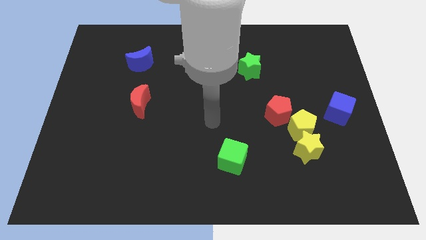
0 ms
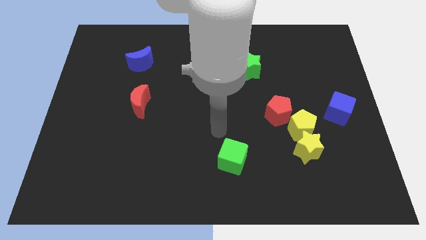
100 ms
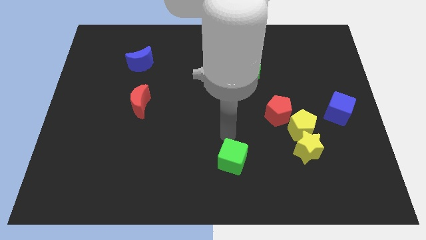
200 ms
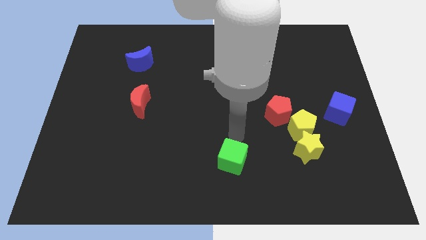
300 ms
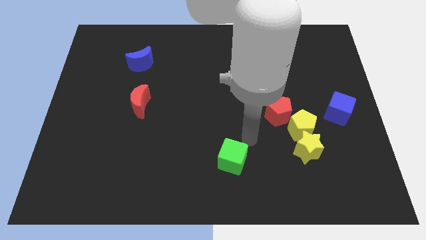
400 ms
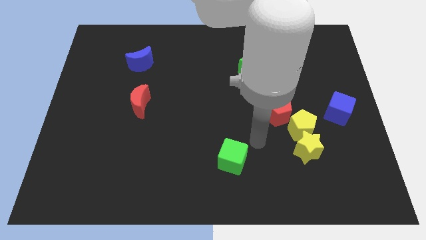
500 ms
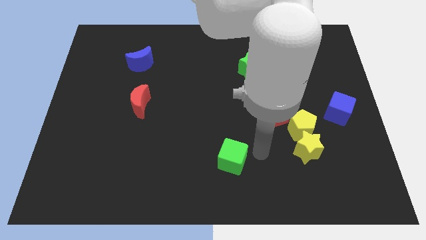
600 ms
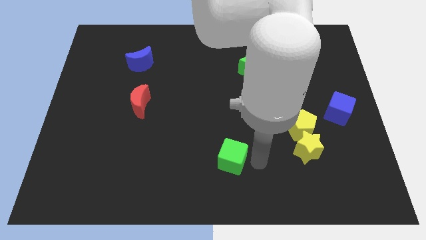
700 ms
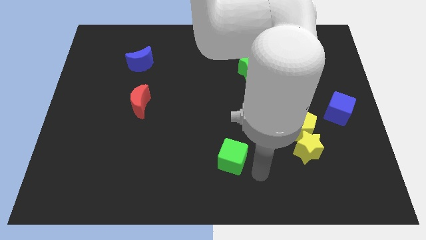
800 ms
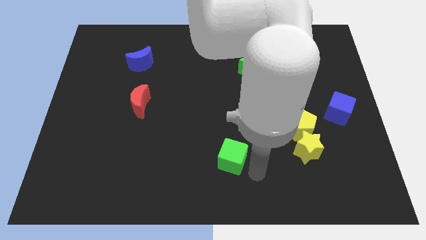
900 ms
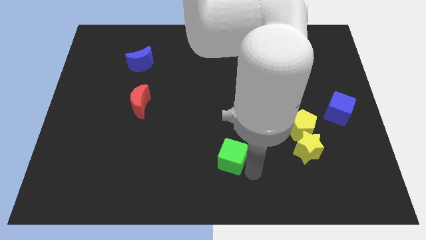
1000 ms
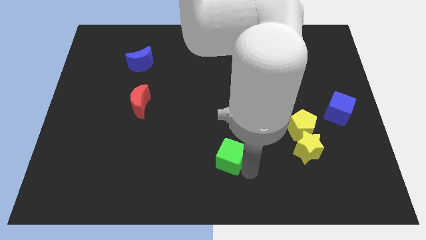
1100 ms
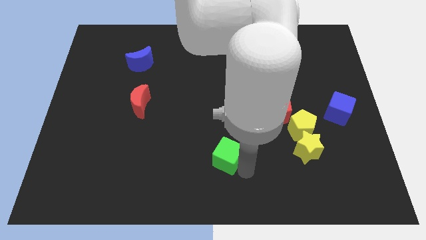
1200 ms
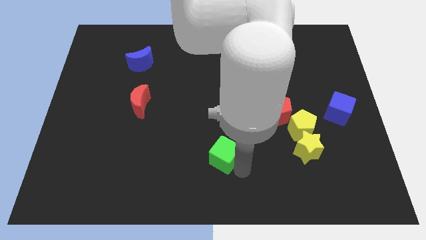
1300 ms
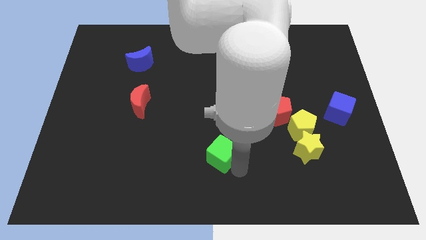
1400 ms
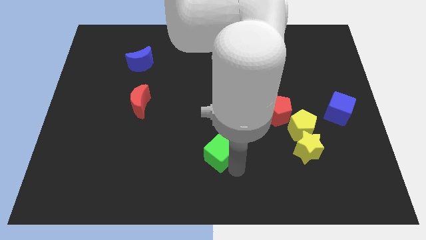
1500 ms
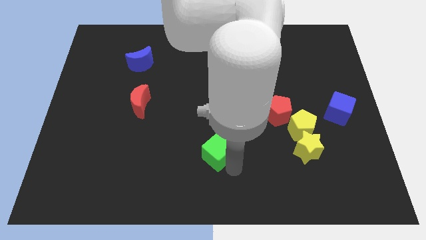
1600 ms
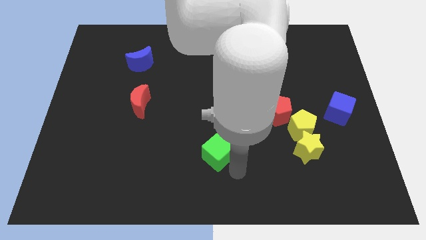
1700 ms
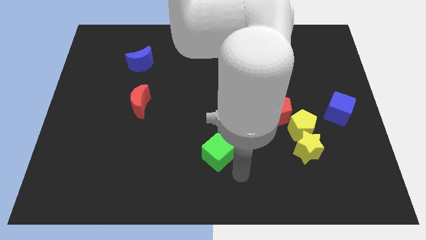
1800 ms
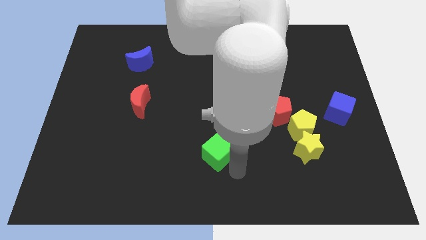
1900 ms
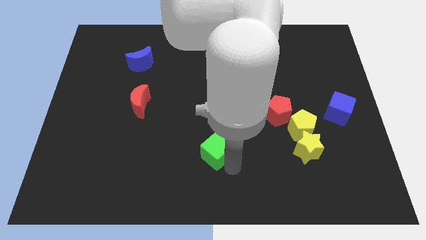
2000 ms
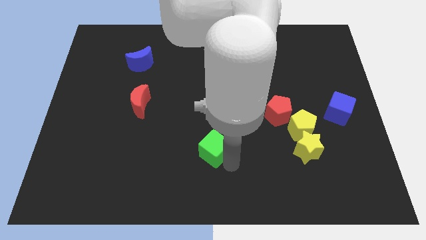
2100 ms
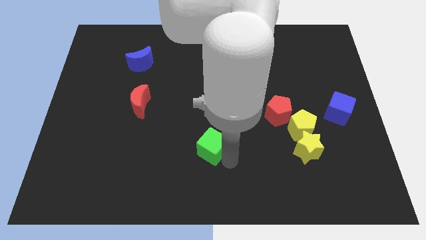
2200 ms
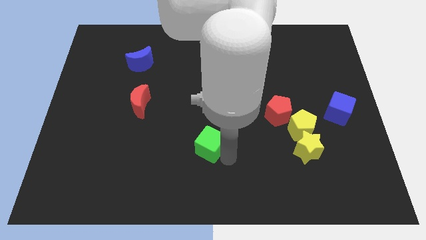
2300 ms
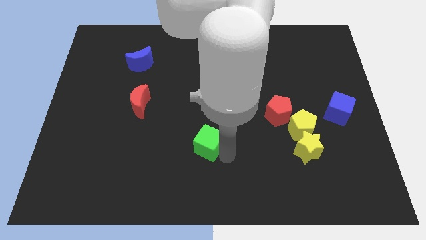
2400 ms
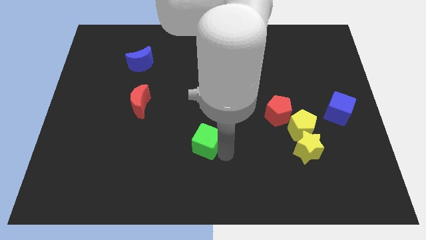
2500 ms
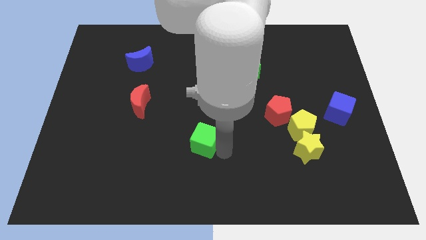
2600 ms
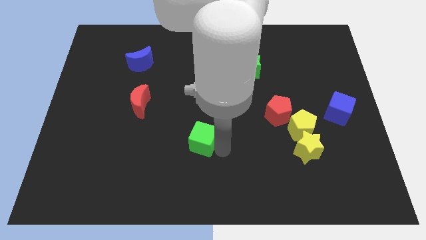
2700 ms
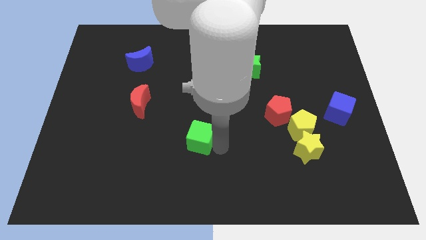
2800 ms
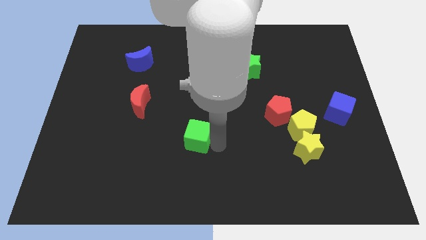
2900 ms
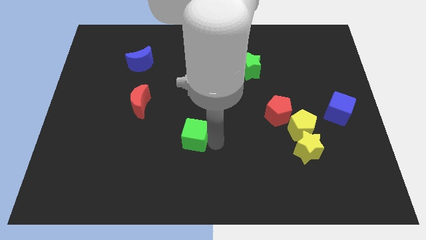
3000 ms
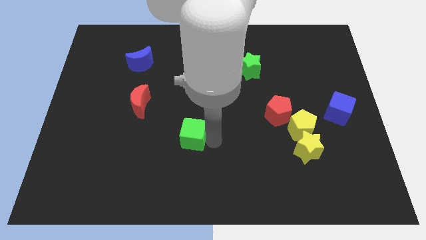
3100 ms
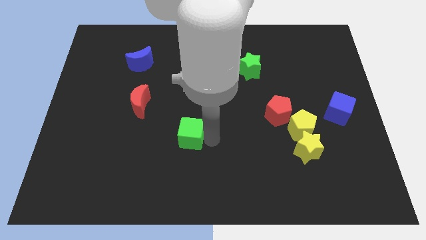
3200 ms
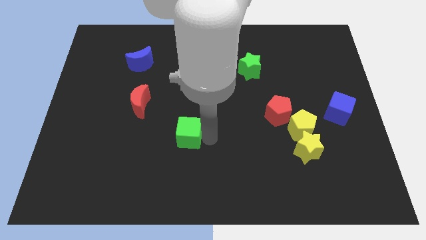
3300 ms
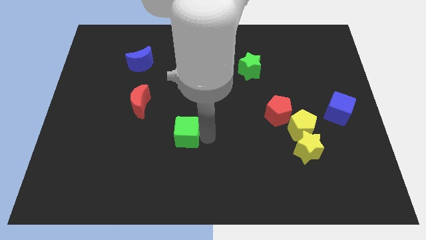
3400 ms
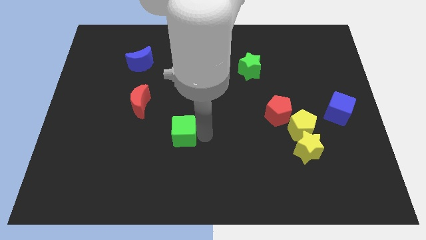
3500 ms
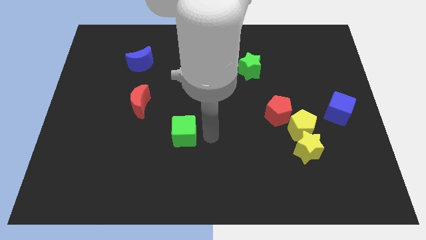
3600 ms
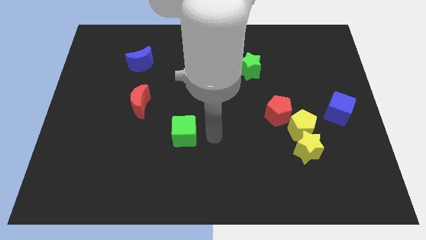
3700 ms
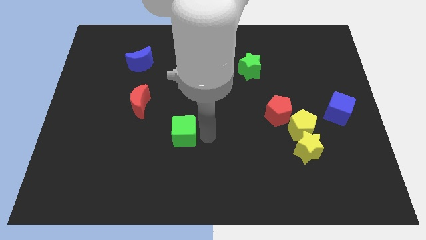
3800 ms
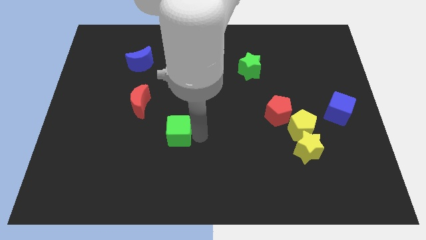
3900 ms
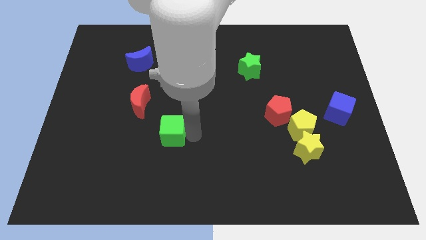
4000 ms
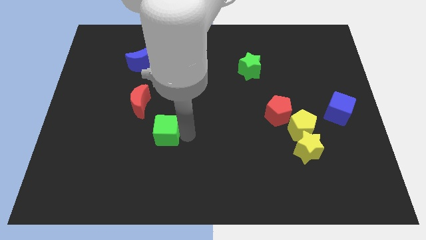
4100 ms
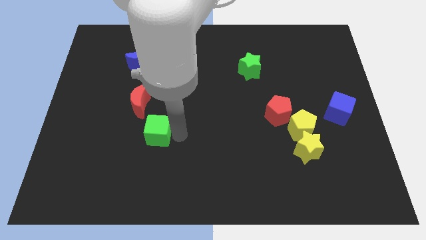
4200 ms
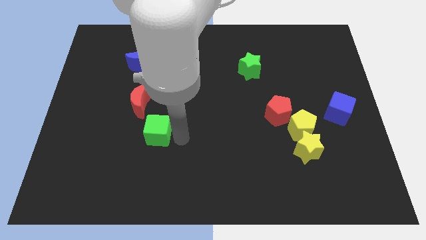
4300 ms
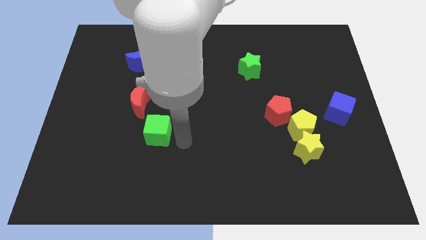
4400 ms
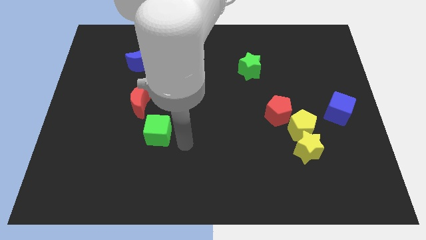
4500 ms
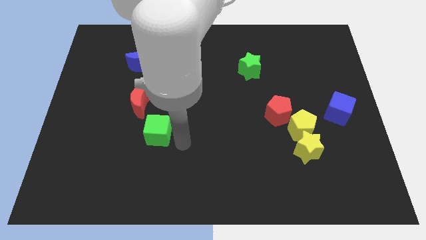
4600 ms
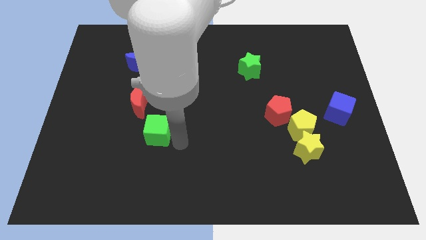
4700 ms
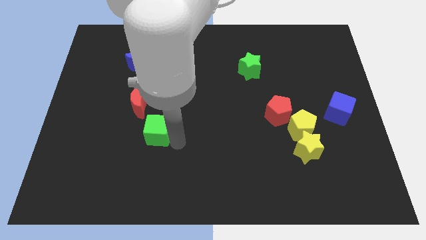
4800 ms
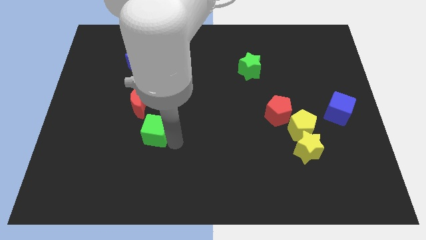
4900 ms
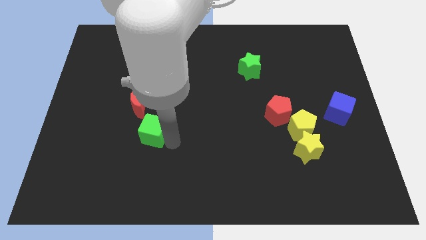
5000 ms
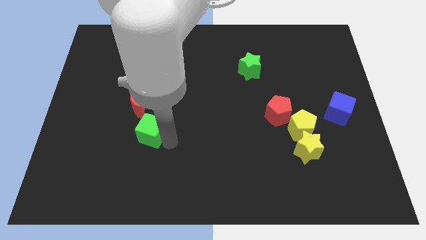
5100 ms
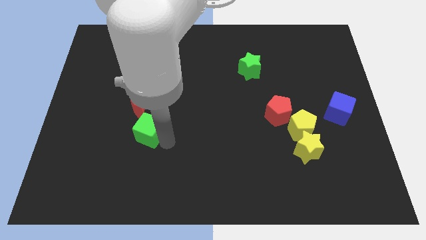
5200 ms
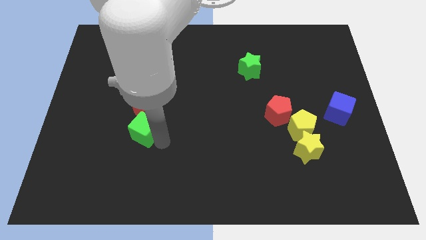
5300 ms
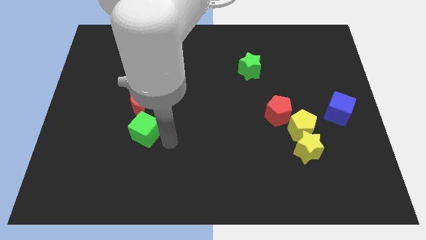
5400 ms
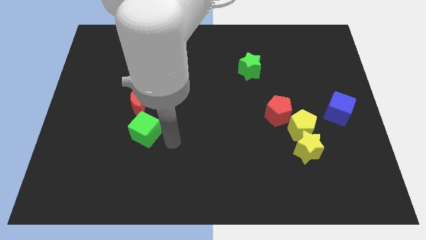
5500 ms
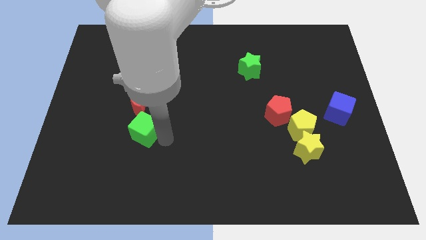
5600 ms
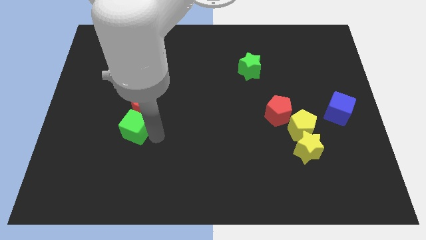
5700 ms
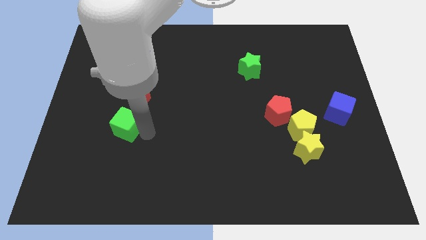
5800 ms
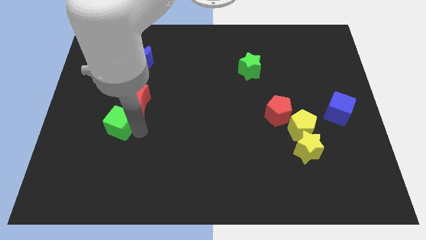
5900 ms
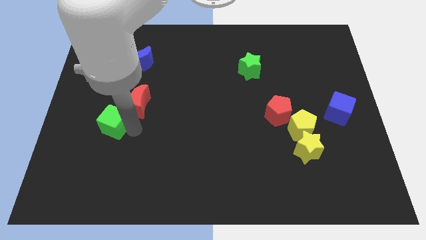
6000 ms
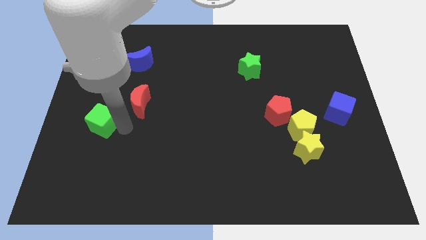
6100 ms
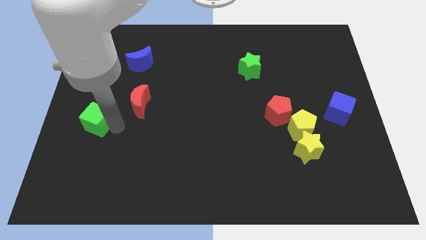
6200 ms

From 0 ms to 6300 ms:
move the green cube to the left side

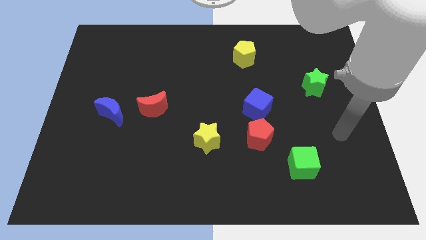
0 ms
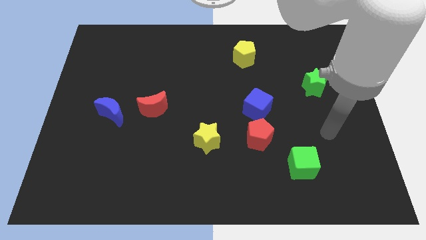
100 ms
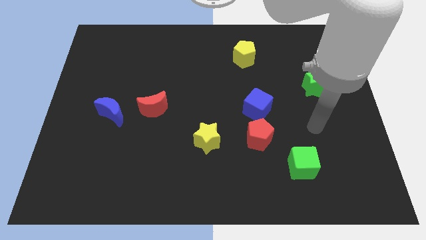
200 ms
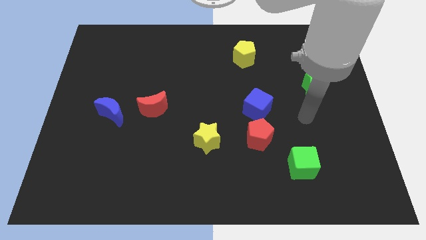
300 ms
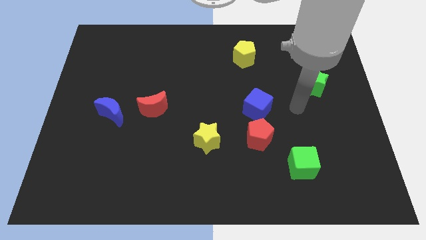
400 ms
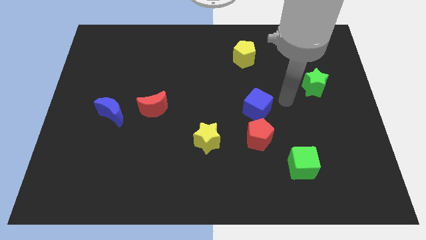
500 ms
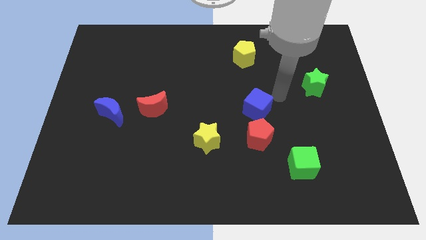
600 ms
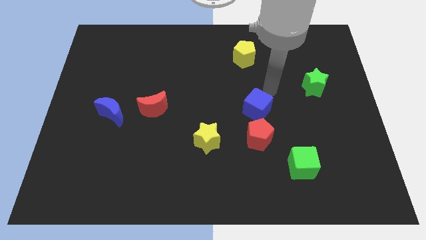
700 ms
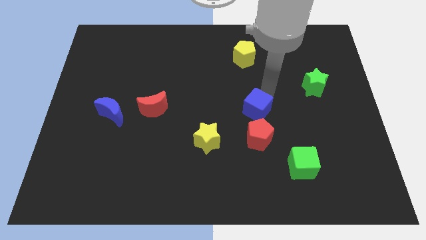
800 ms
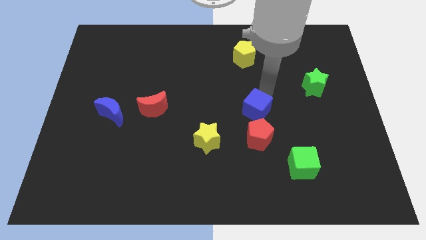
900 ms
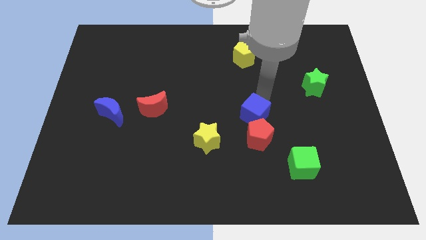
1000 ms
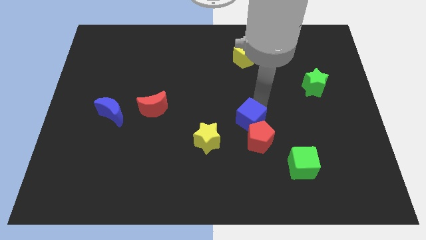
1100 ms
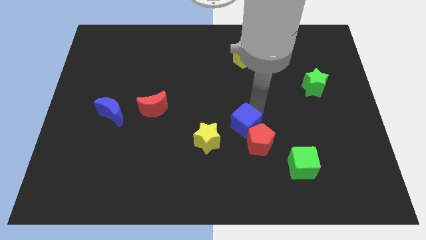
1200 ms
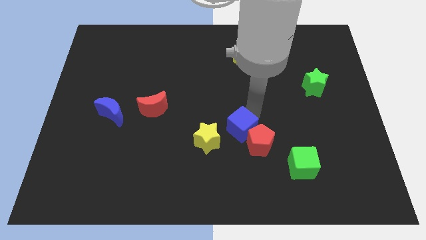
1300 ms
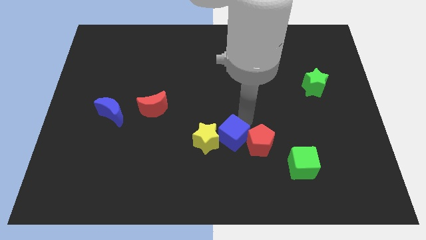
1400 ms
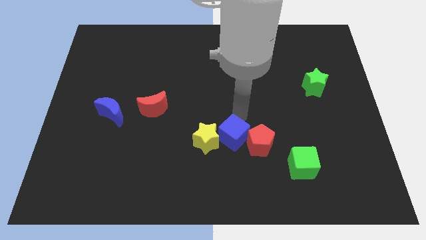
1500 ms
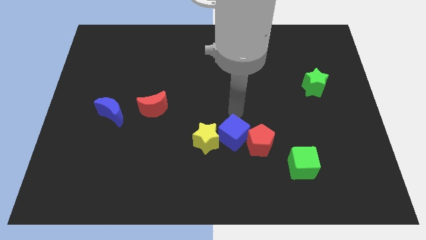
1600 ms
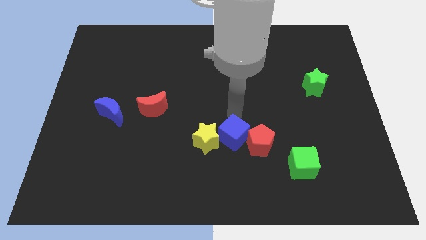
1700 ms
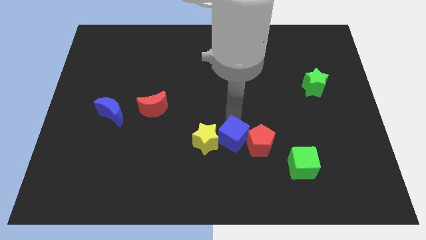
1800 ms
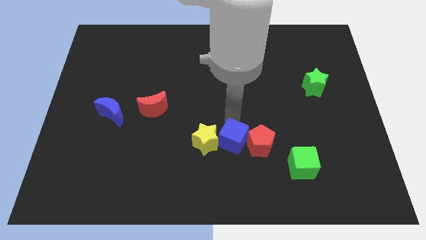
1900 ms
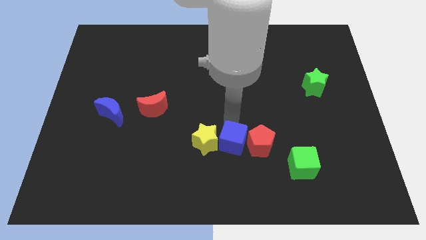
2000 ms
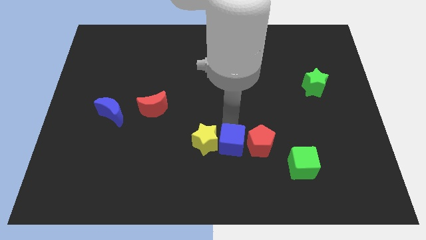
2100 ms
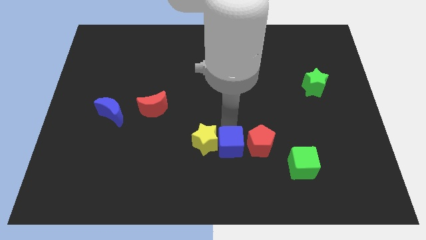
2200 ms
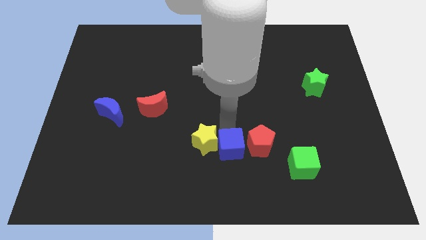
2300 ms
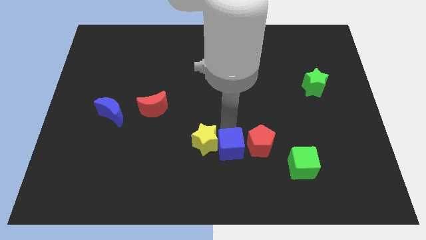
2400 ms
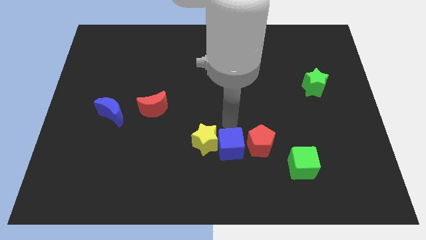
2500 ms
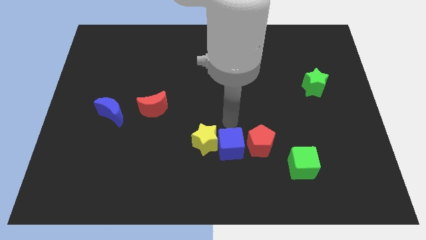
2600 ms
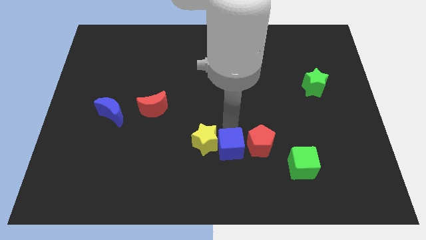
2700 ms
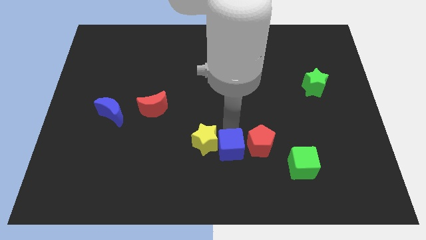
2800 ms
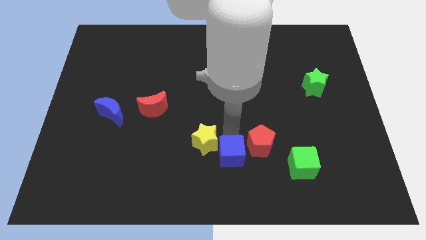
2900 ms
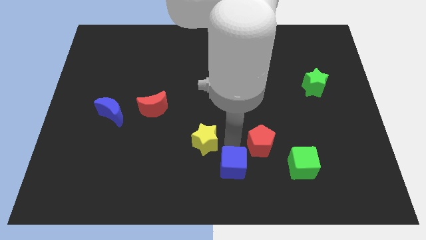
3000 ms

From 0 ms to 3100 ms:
slide the blue cube to the bottom side
